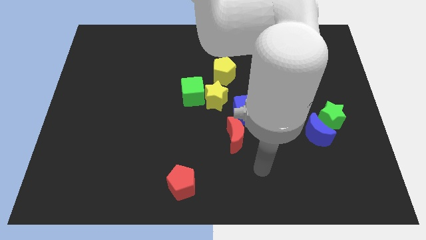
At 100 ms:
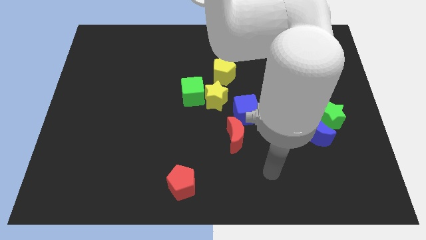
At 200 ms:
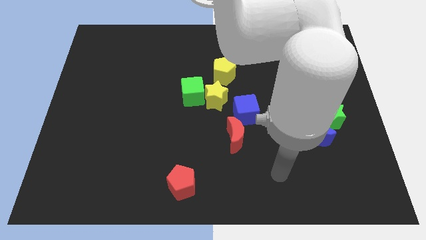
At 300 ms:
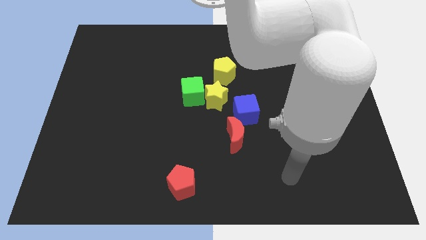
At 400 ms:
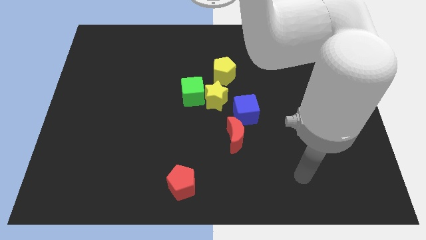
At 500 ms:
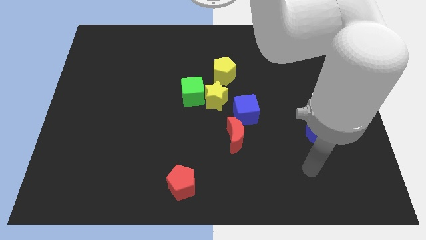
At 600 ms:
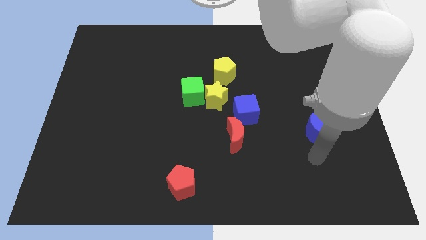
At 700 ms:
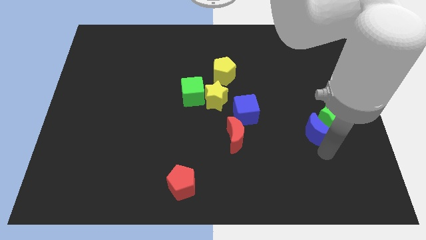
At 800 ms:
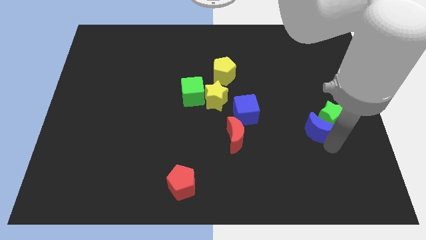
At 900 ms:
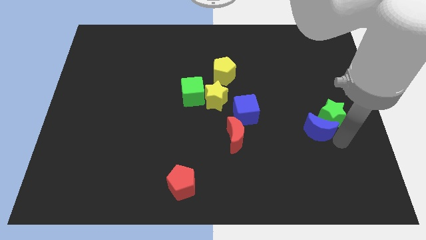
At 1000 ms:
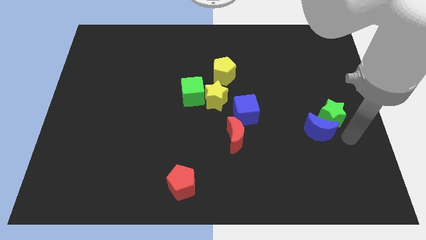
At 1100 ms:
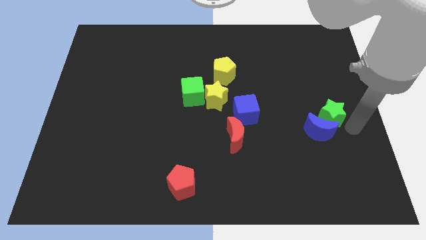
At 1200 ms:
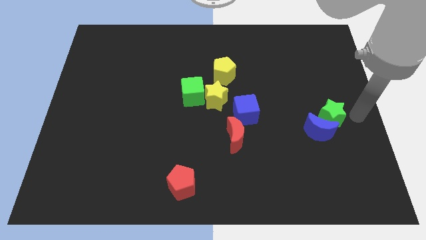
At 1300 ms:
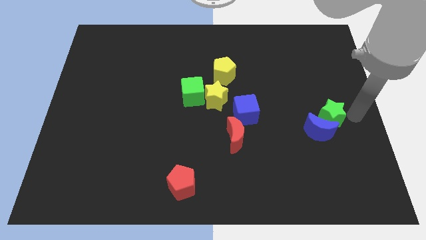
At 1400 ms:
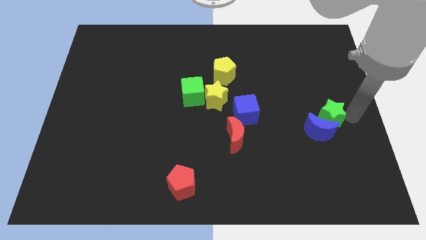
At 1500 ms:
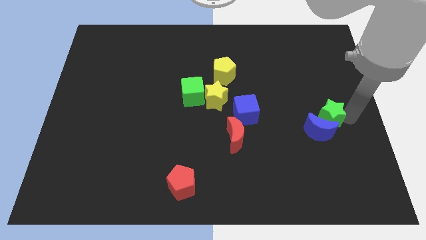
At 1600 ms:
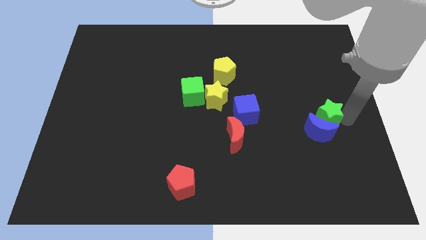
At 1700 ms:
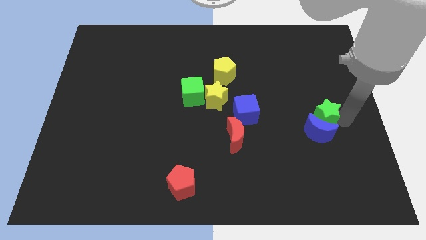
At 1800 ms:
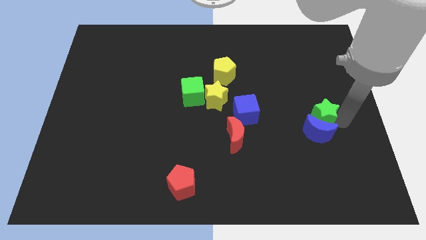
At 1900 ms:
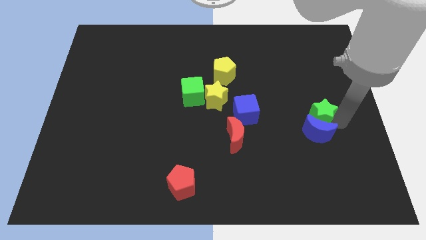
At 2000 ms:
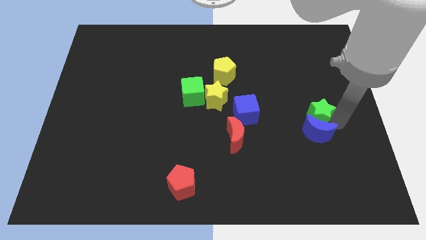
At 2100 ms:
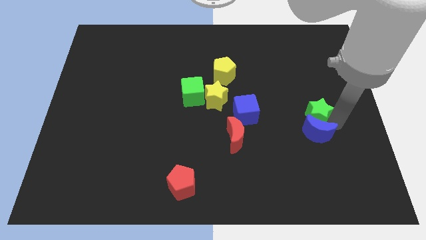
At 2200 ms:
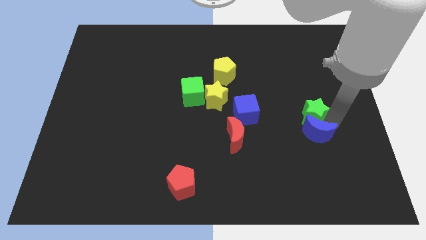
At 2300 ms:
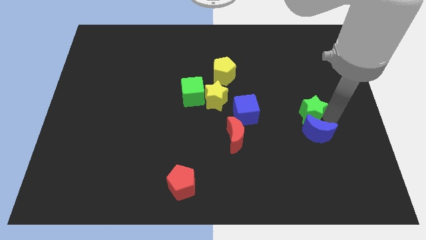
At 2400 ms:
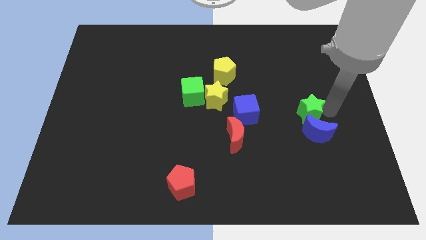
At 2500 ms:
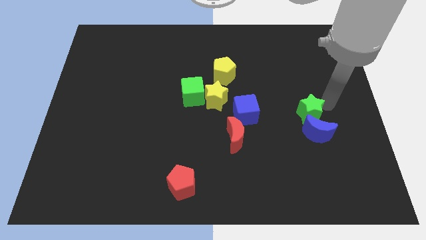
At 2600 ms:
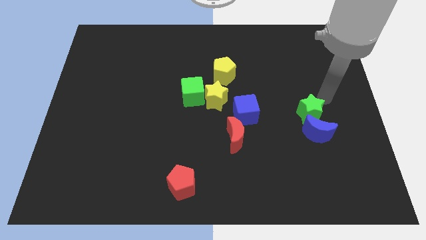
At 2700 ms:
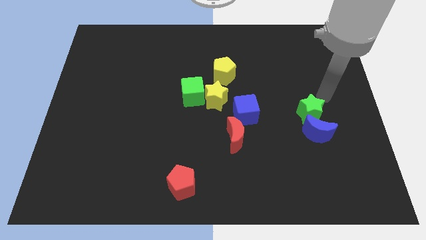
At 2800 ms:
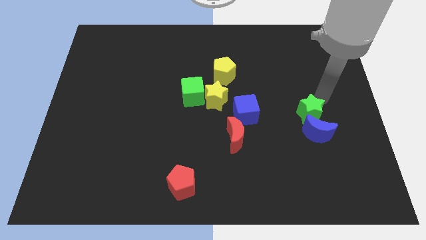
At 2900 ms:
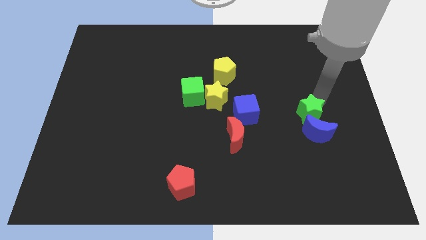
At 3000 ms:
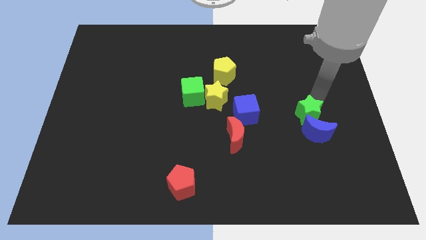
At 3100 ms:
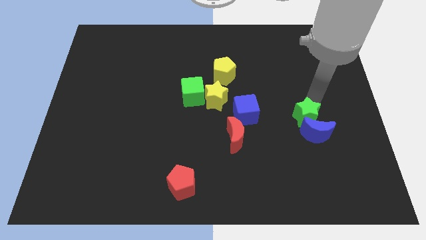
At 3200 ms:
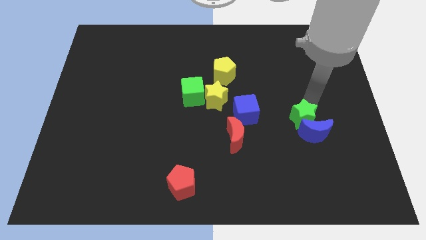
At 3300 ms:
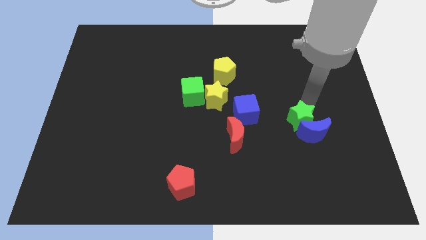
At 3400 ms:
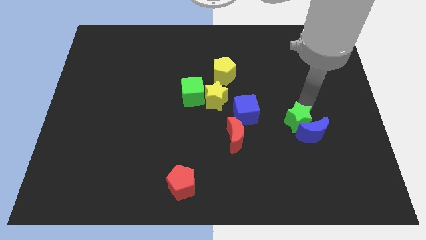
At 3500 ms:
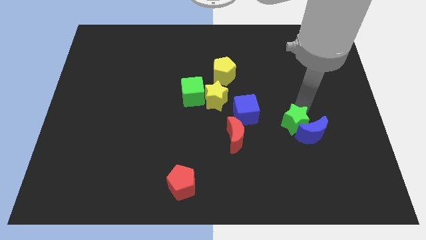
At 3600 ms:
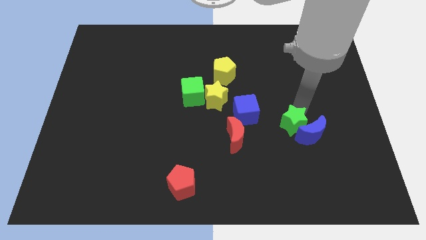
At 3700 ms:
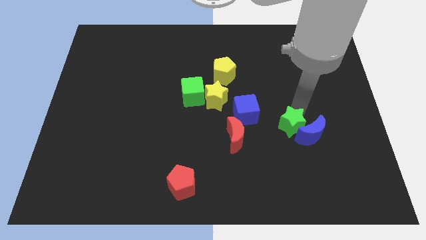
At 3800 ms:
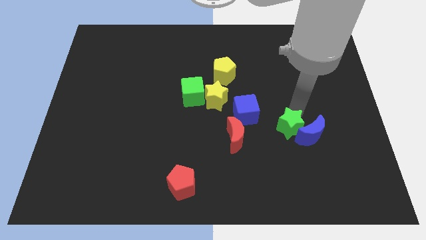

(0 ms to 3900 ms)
move the green star a bit down and then to the left

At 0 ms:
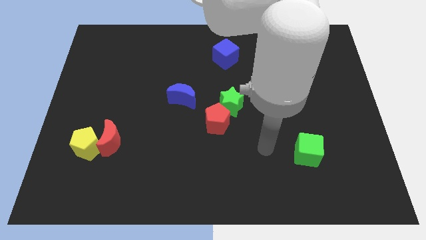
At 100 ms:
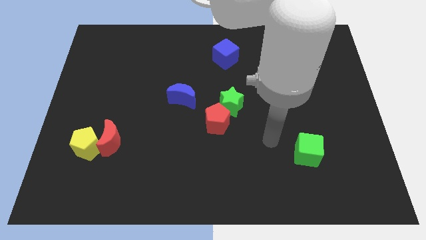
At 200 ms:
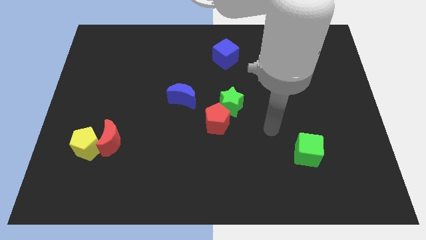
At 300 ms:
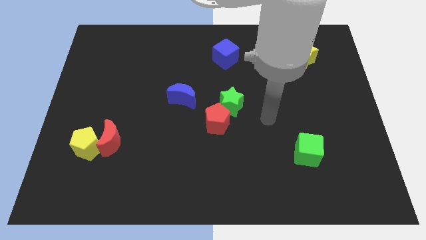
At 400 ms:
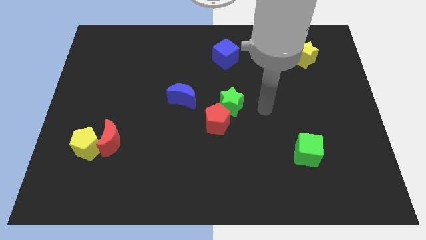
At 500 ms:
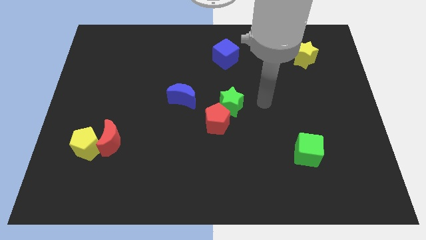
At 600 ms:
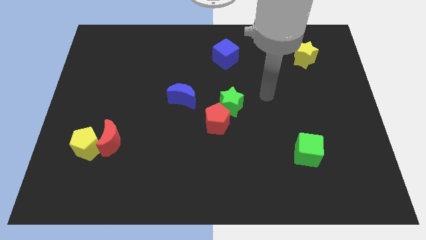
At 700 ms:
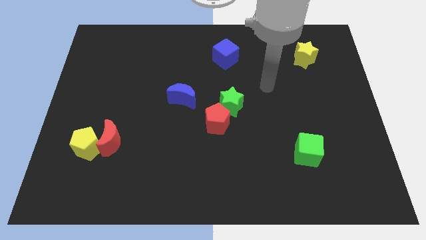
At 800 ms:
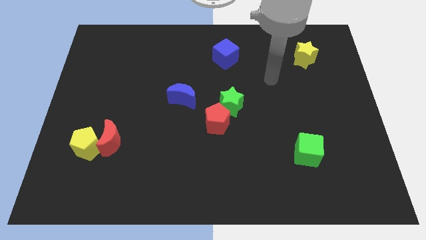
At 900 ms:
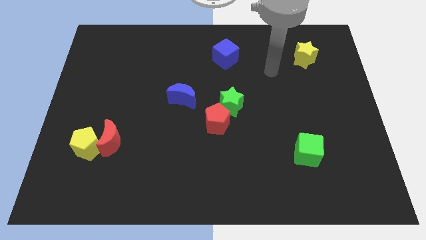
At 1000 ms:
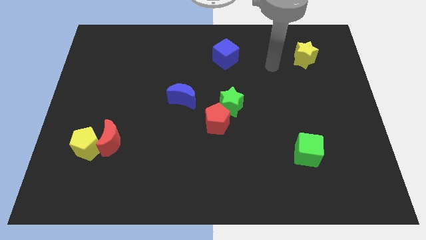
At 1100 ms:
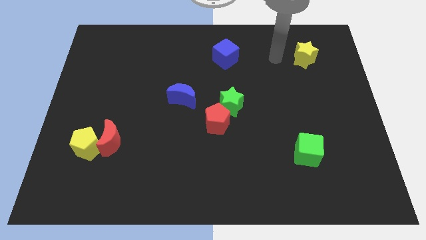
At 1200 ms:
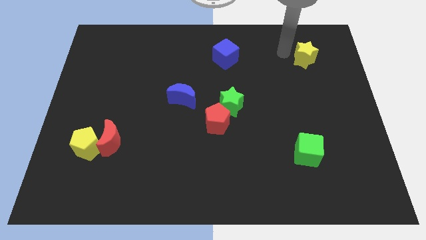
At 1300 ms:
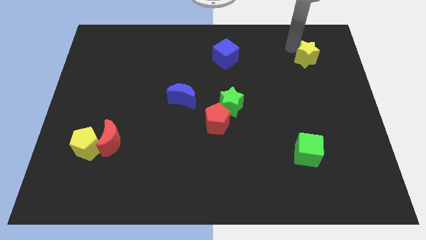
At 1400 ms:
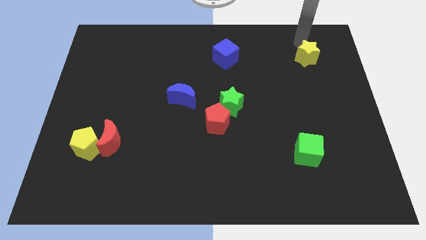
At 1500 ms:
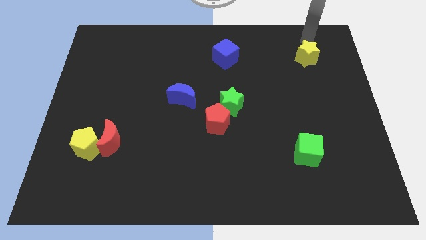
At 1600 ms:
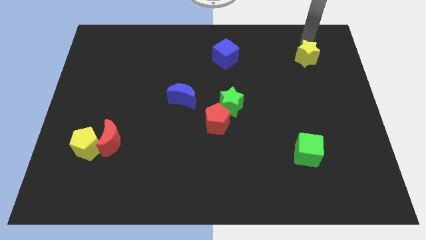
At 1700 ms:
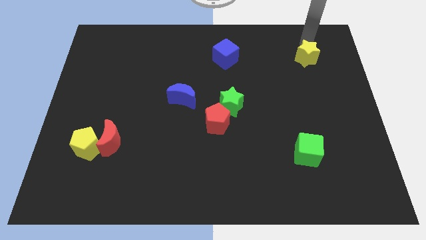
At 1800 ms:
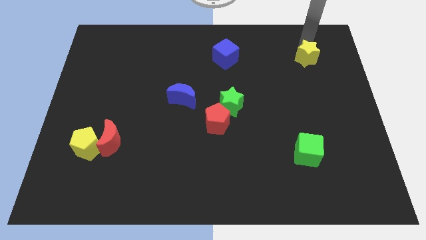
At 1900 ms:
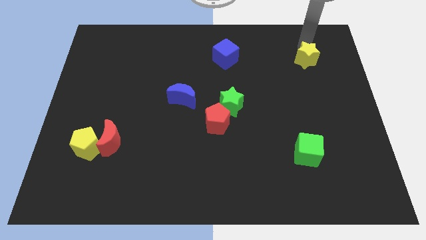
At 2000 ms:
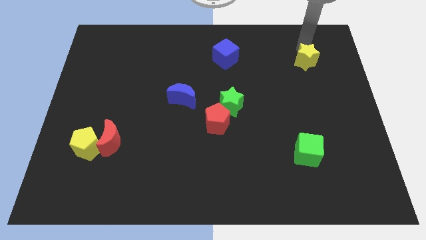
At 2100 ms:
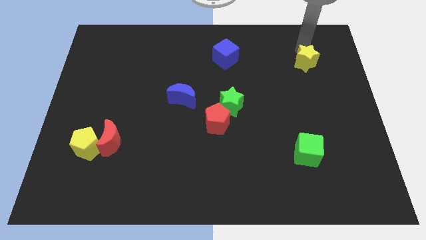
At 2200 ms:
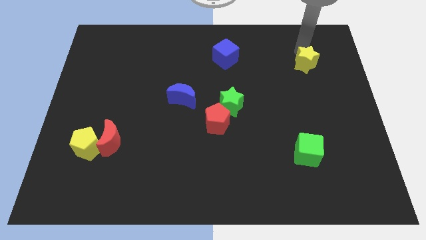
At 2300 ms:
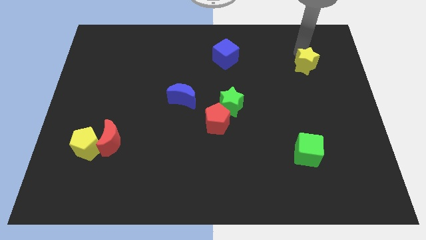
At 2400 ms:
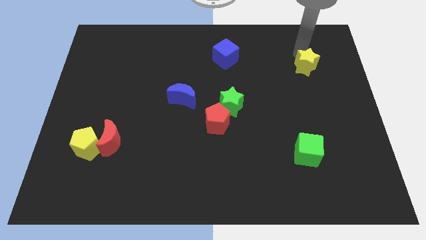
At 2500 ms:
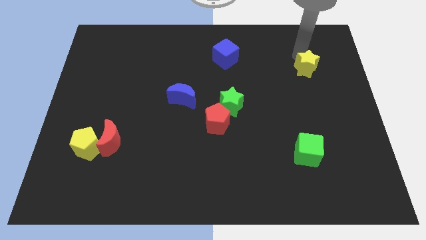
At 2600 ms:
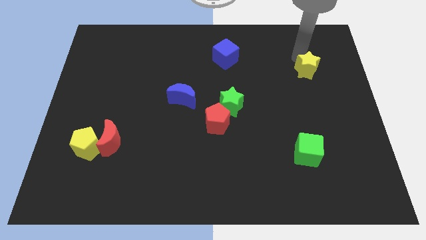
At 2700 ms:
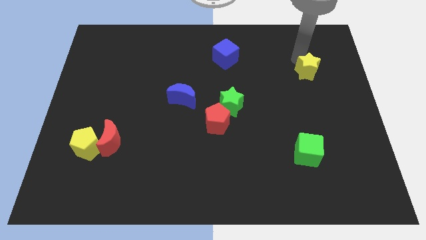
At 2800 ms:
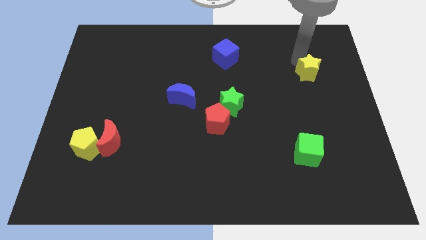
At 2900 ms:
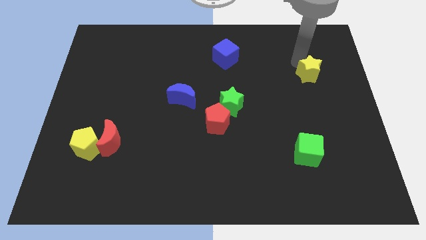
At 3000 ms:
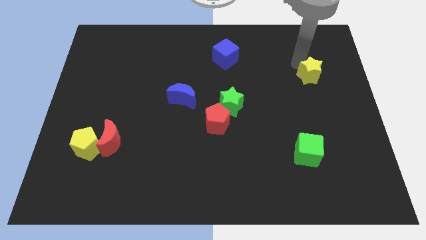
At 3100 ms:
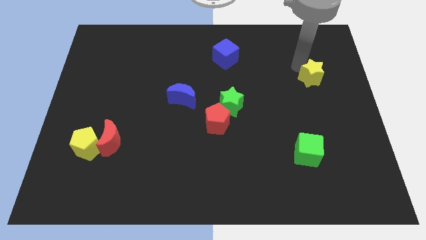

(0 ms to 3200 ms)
slide the yellow star down a little bit

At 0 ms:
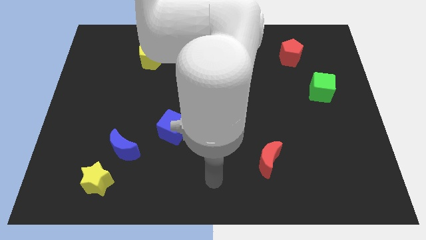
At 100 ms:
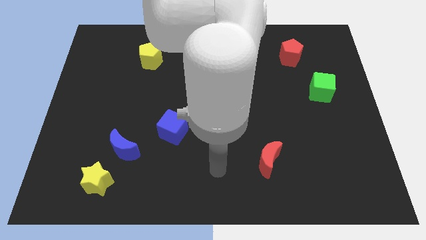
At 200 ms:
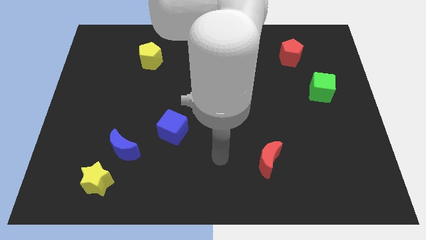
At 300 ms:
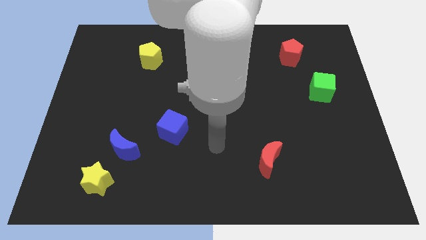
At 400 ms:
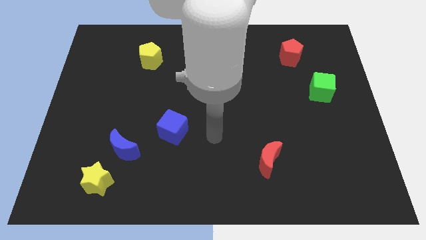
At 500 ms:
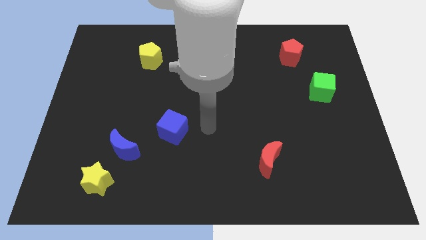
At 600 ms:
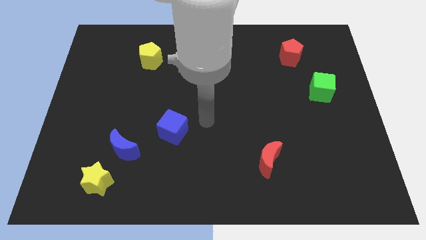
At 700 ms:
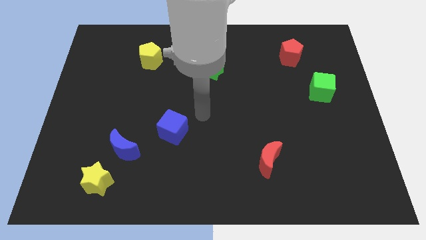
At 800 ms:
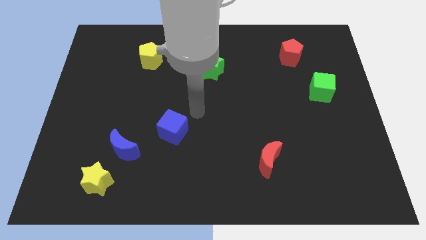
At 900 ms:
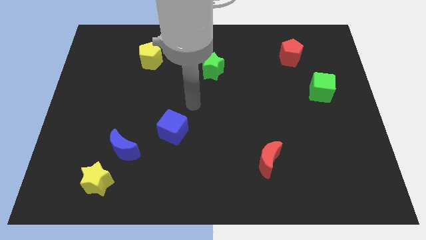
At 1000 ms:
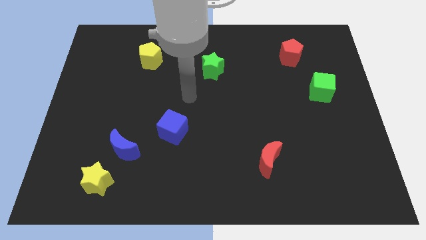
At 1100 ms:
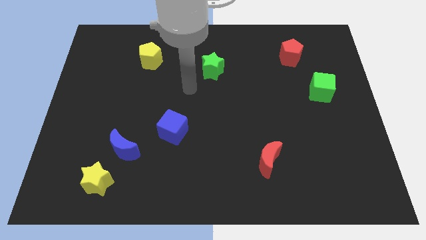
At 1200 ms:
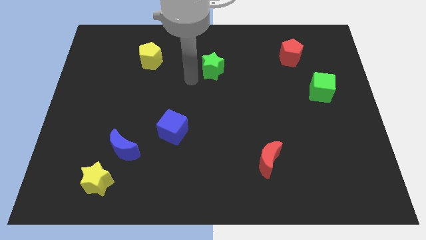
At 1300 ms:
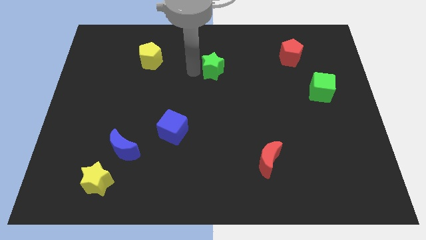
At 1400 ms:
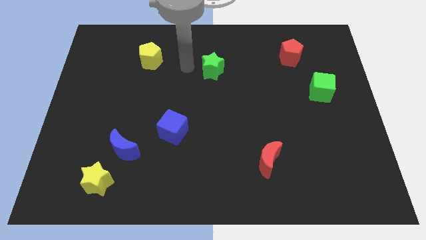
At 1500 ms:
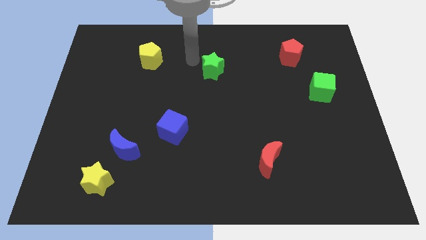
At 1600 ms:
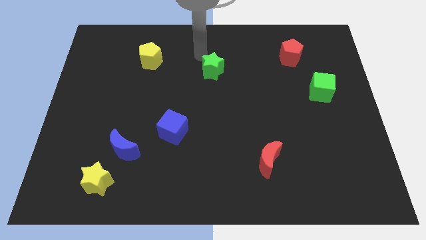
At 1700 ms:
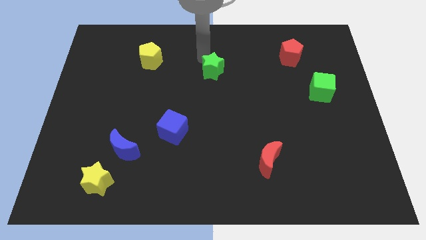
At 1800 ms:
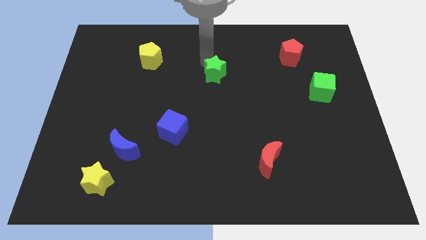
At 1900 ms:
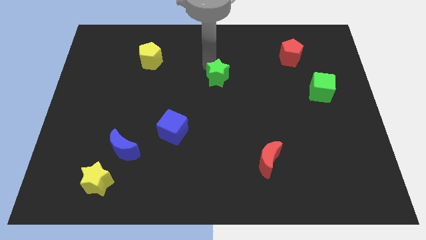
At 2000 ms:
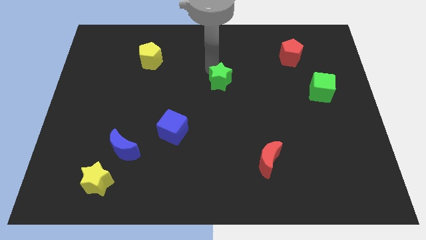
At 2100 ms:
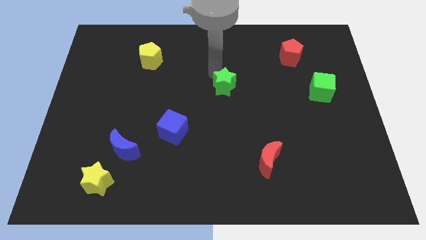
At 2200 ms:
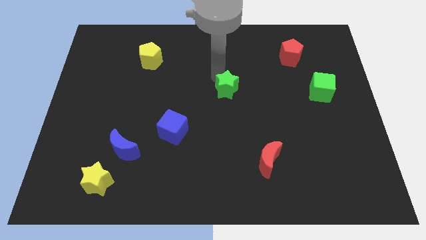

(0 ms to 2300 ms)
move the green star down and right a bit
